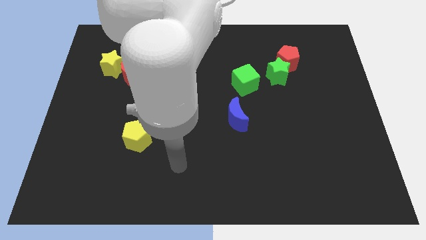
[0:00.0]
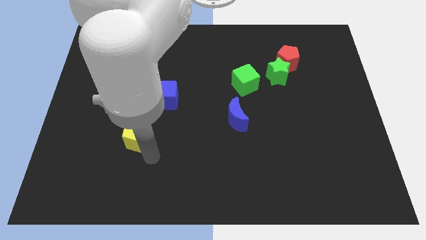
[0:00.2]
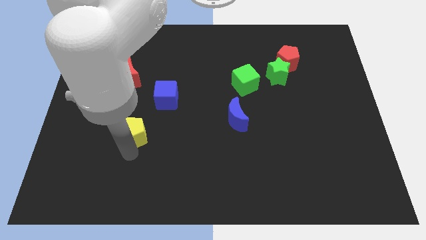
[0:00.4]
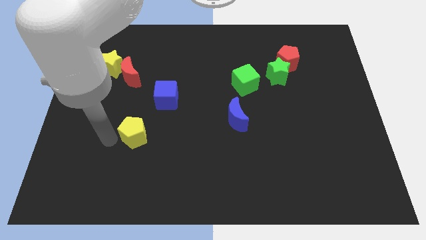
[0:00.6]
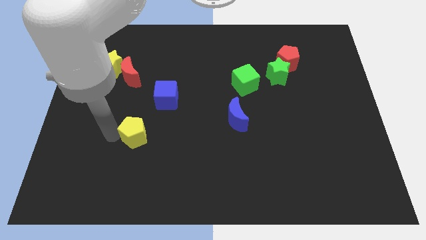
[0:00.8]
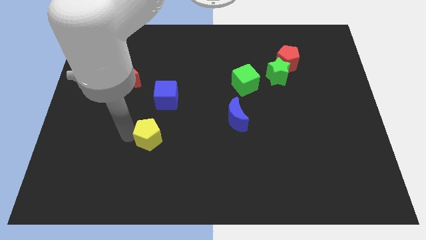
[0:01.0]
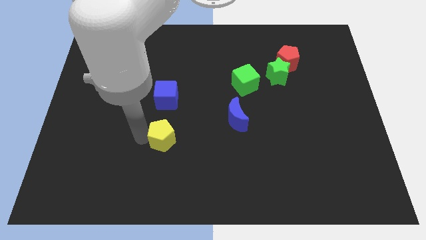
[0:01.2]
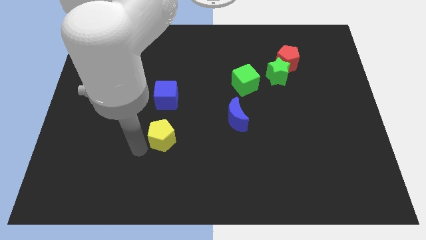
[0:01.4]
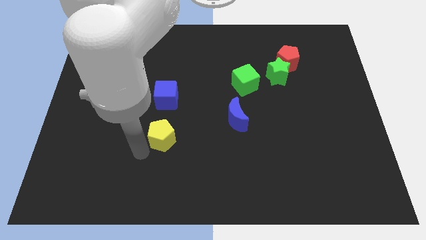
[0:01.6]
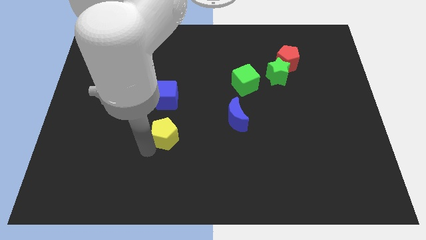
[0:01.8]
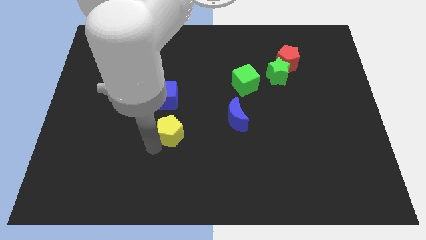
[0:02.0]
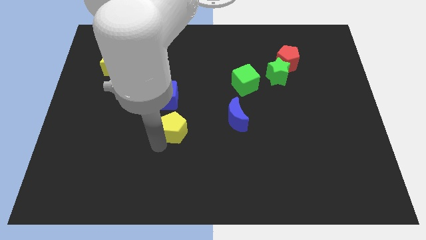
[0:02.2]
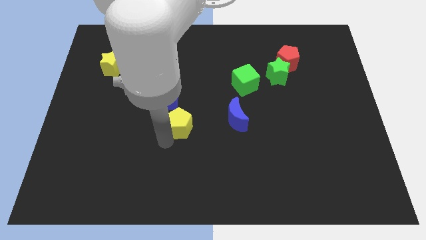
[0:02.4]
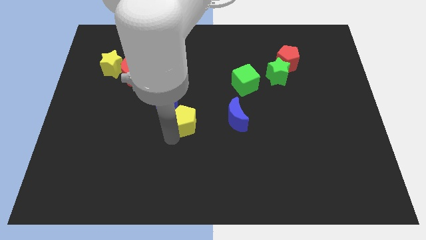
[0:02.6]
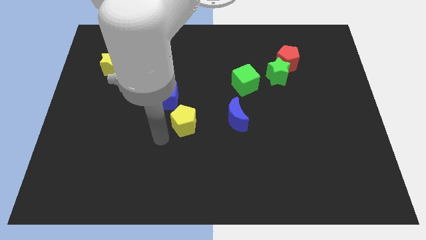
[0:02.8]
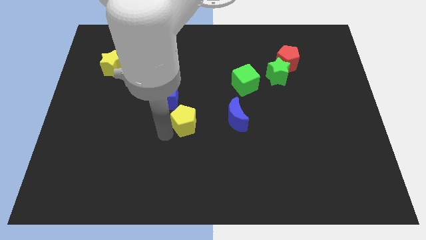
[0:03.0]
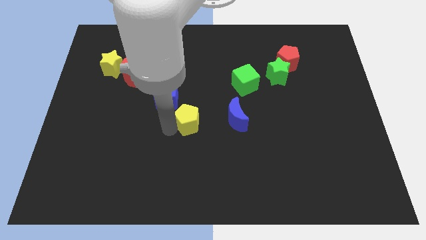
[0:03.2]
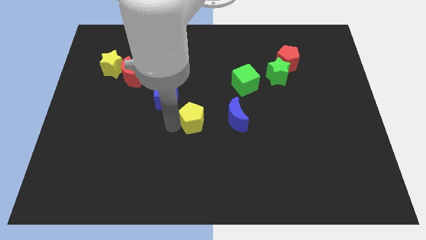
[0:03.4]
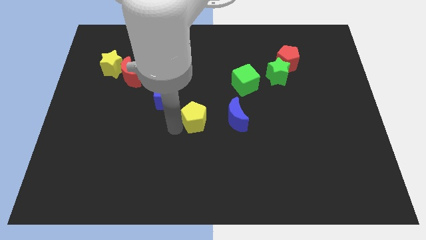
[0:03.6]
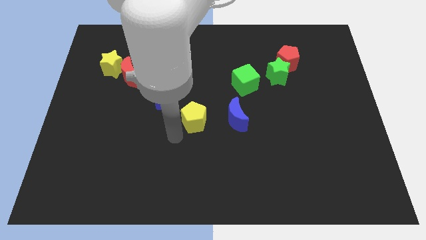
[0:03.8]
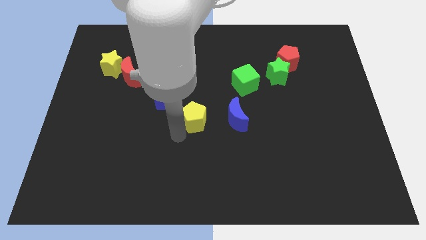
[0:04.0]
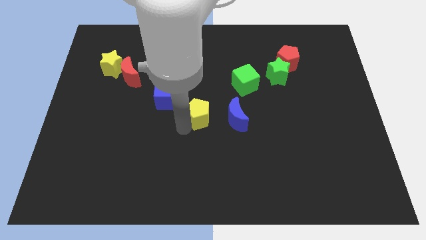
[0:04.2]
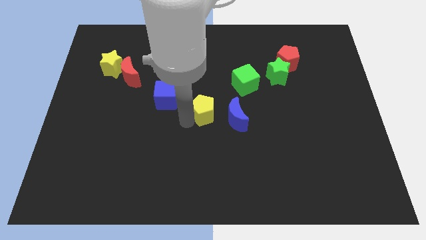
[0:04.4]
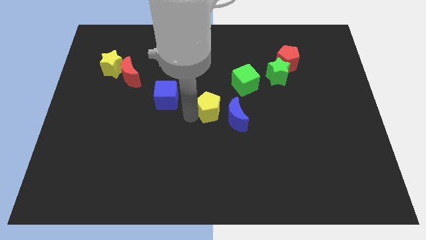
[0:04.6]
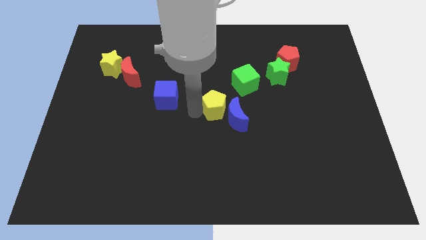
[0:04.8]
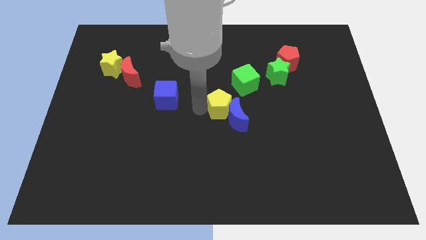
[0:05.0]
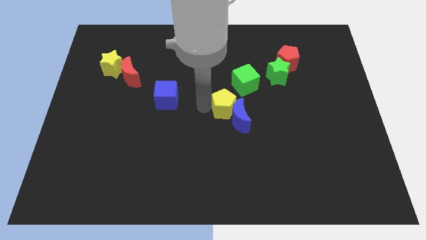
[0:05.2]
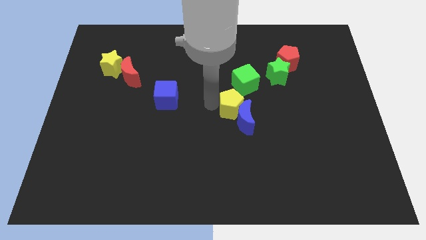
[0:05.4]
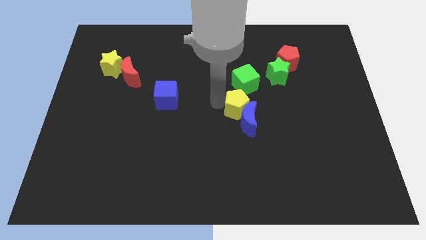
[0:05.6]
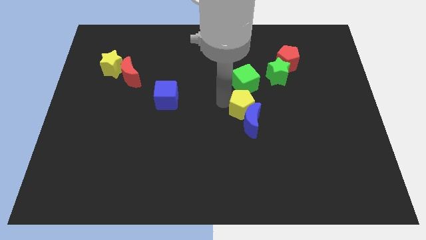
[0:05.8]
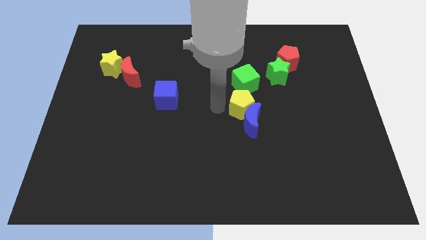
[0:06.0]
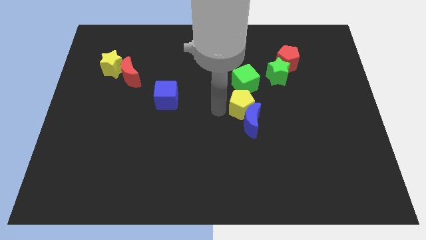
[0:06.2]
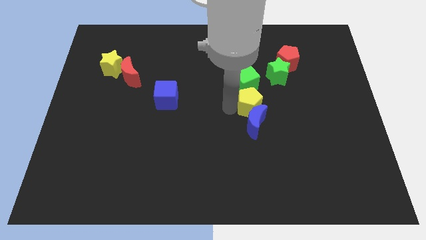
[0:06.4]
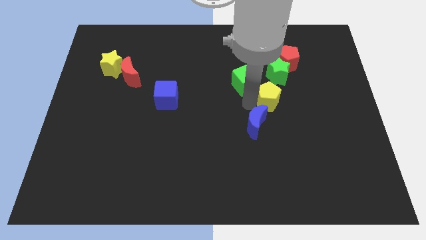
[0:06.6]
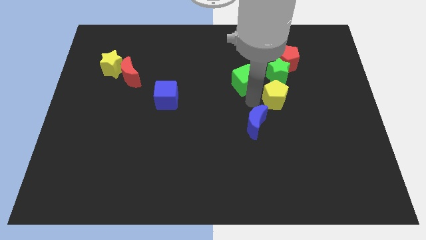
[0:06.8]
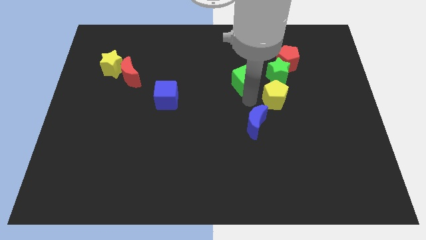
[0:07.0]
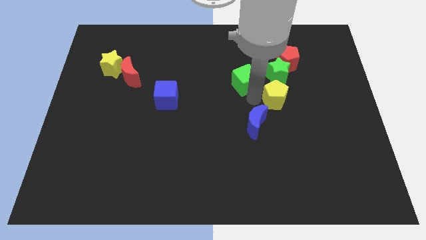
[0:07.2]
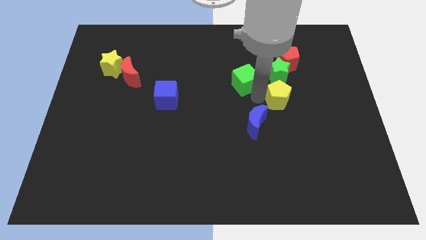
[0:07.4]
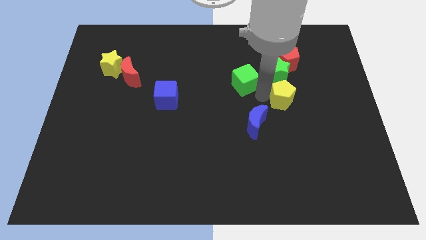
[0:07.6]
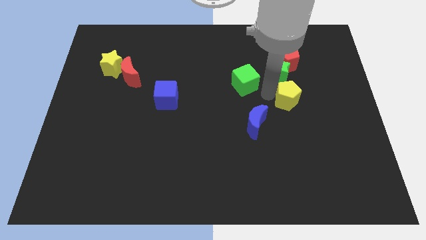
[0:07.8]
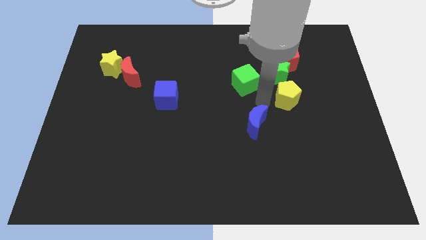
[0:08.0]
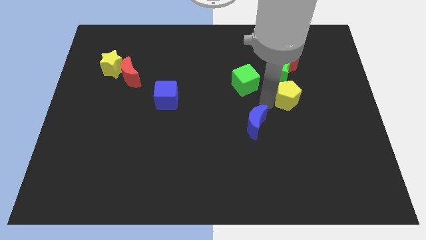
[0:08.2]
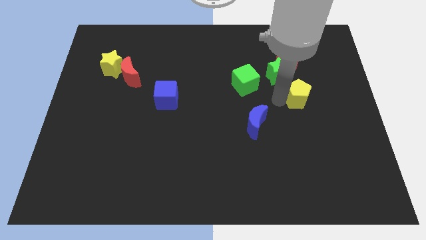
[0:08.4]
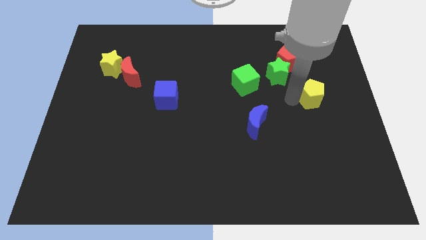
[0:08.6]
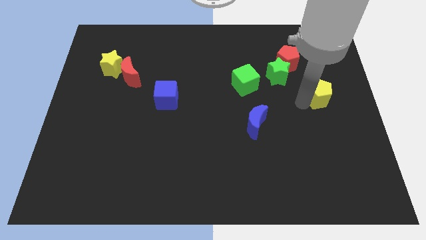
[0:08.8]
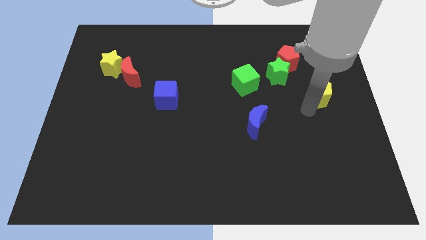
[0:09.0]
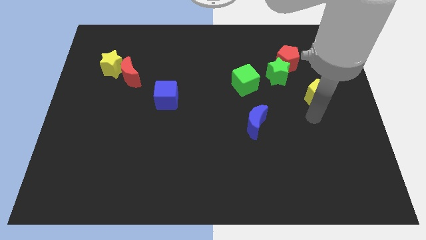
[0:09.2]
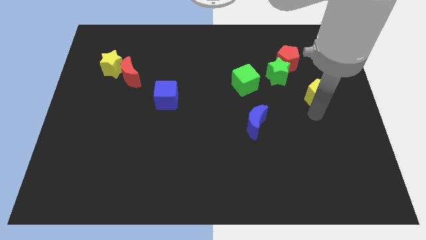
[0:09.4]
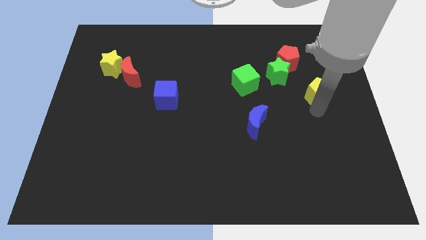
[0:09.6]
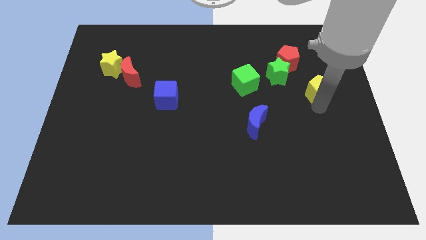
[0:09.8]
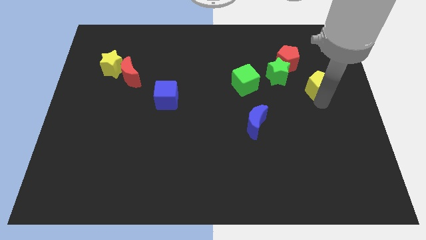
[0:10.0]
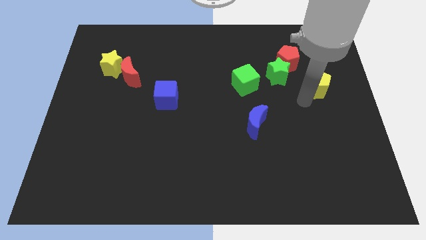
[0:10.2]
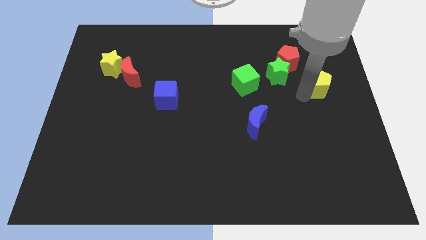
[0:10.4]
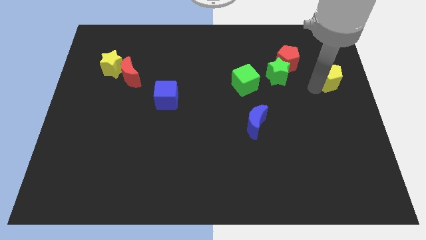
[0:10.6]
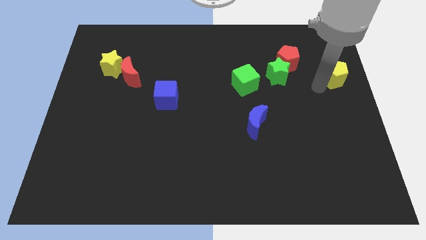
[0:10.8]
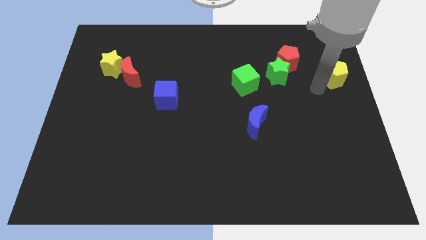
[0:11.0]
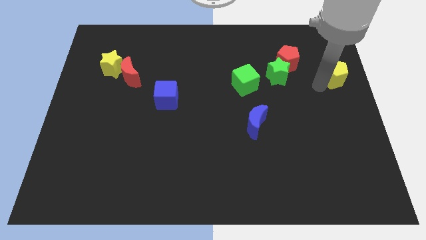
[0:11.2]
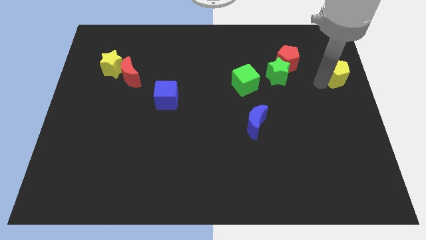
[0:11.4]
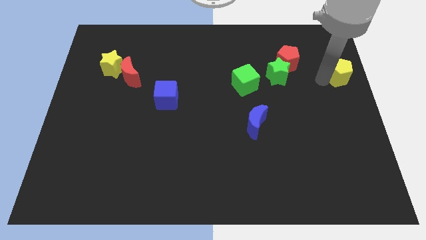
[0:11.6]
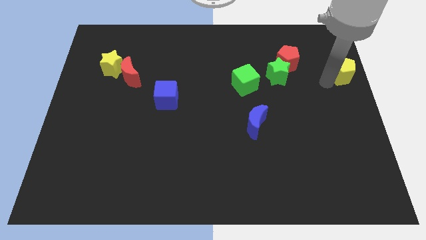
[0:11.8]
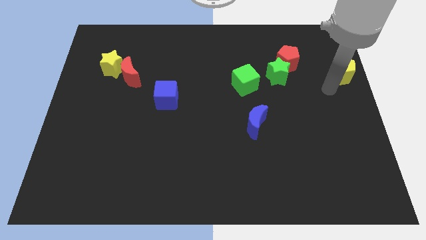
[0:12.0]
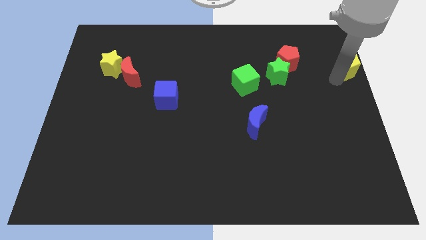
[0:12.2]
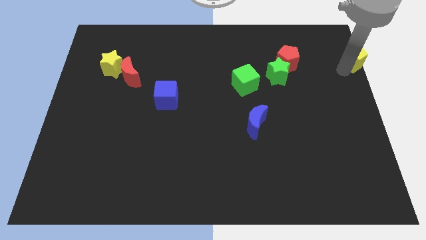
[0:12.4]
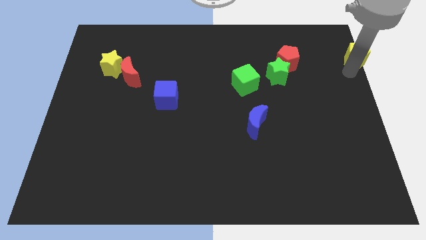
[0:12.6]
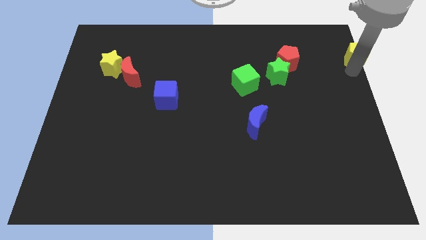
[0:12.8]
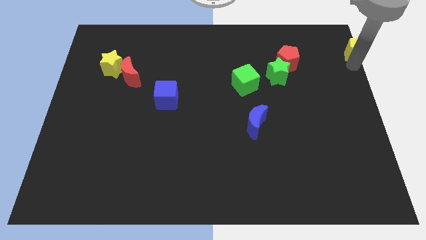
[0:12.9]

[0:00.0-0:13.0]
move the yellow pentagon to the top right corner
